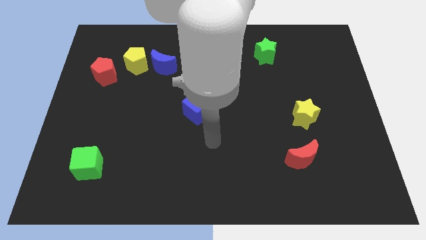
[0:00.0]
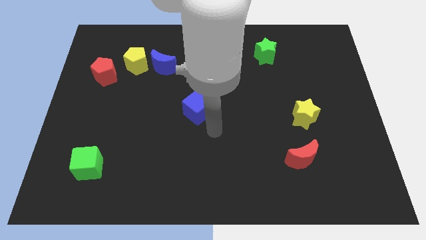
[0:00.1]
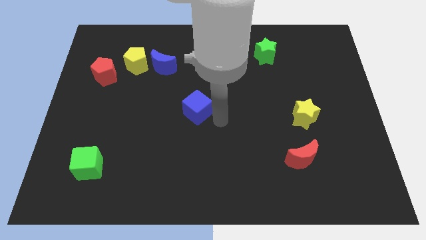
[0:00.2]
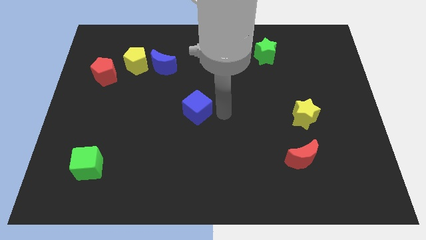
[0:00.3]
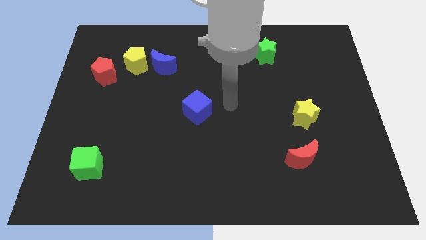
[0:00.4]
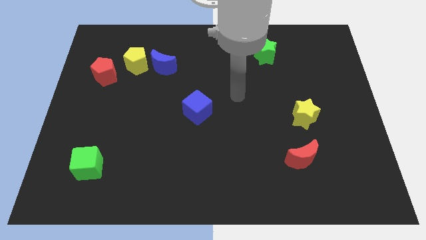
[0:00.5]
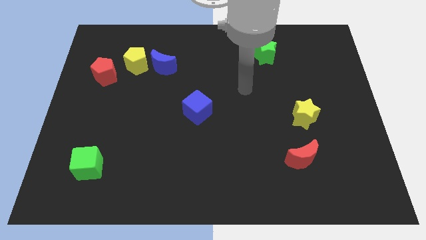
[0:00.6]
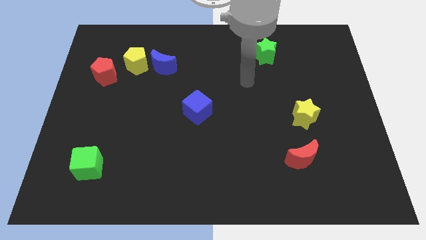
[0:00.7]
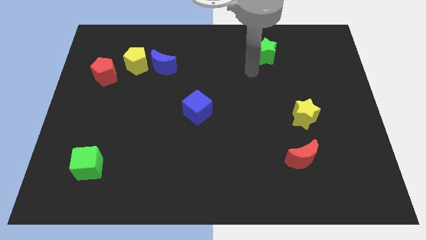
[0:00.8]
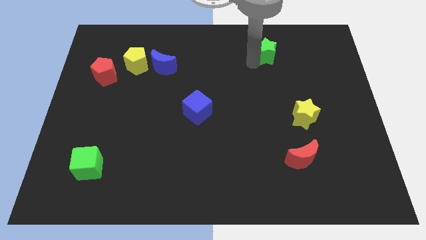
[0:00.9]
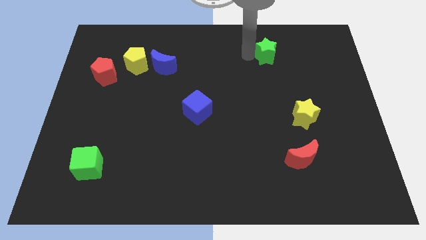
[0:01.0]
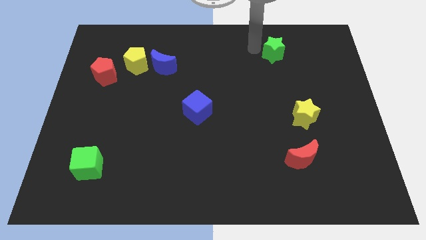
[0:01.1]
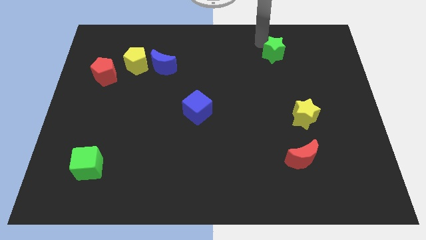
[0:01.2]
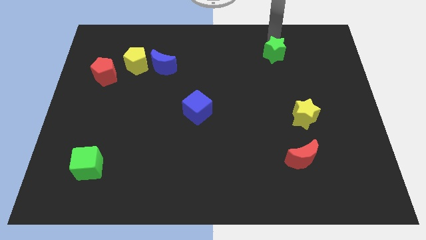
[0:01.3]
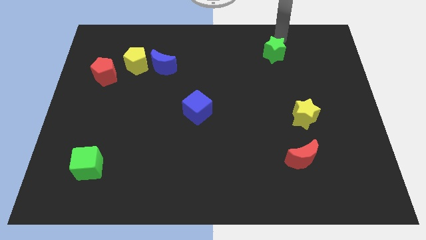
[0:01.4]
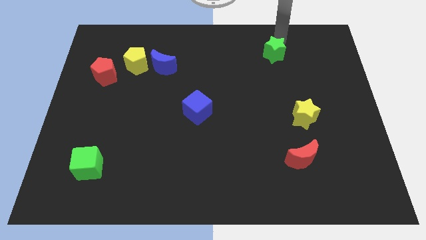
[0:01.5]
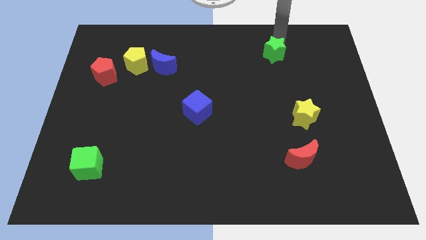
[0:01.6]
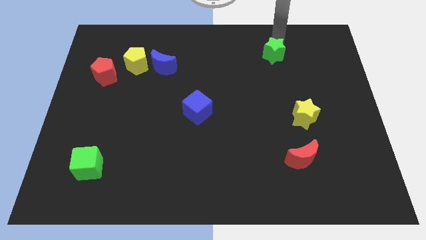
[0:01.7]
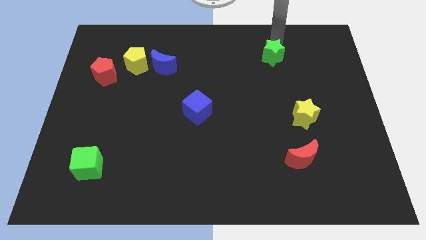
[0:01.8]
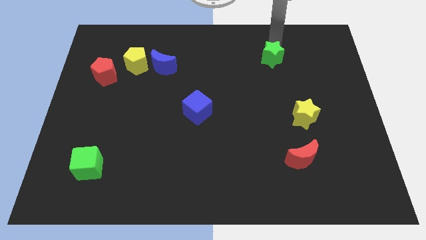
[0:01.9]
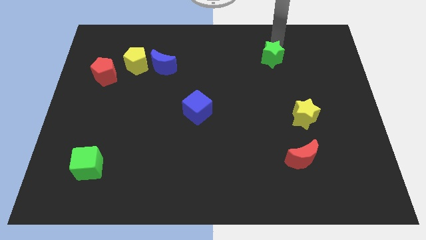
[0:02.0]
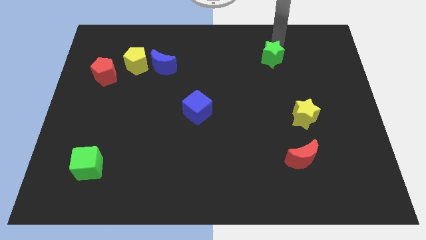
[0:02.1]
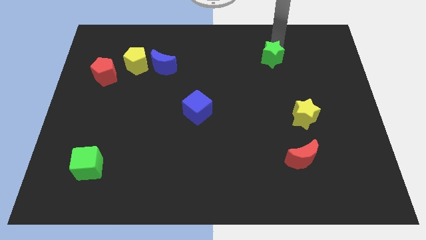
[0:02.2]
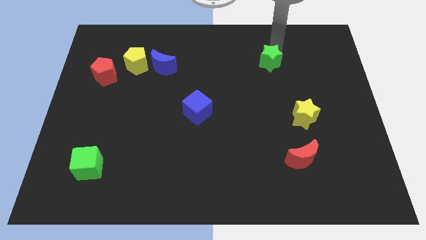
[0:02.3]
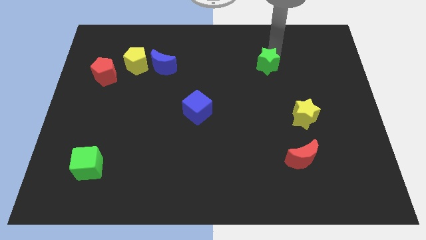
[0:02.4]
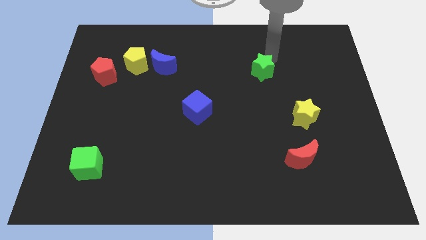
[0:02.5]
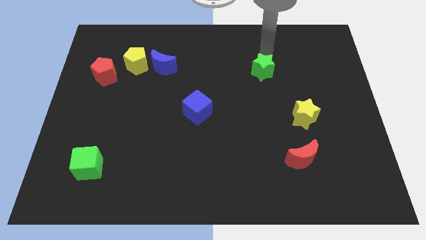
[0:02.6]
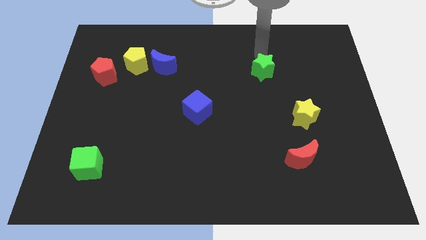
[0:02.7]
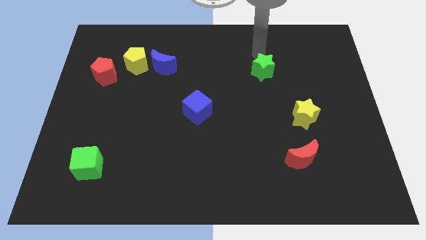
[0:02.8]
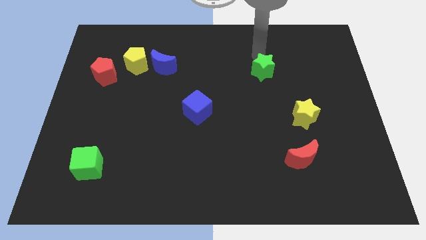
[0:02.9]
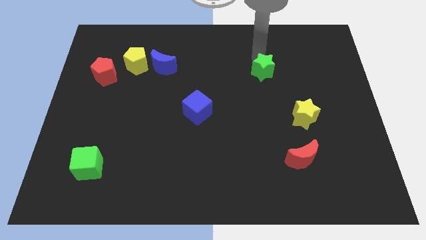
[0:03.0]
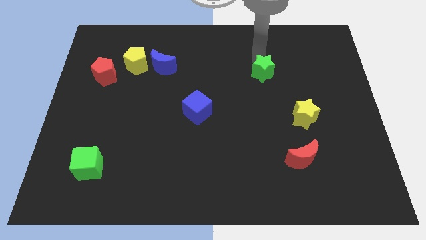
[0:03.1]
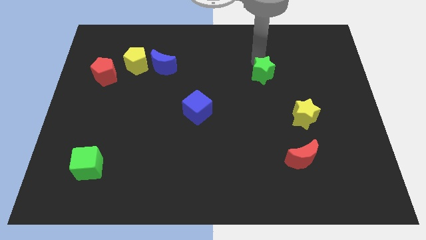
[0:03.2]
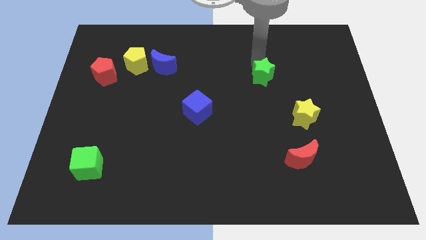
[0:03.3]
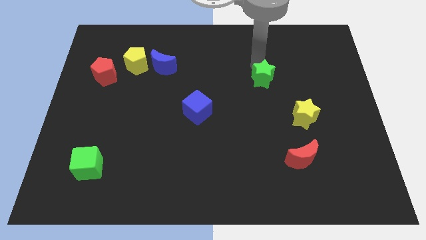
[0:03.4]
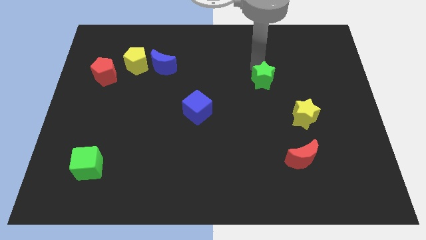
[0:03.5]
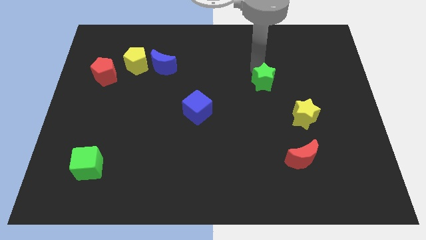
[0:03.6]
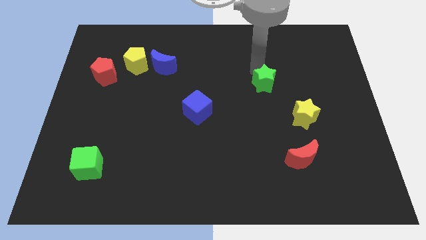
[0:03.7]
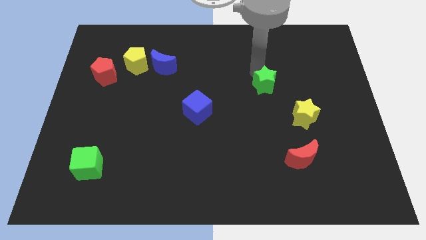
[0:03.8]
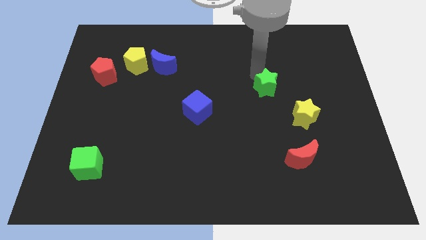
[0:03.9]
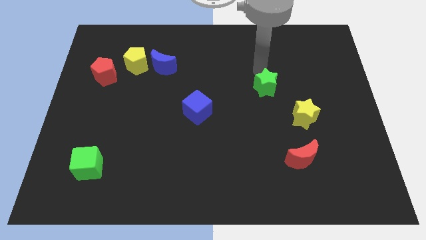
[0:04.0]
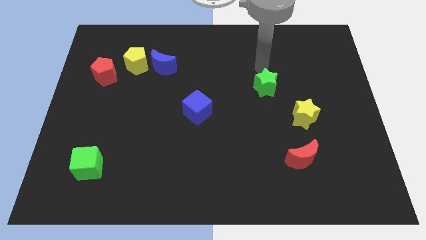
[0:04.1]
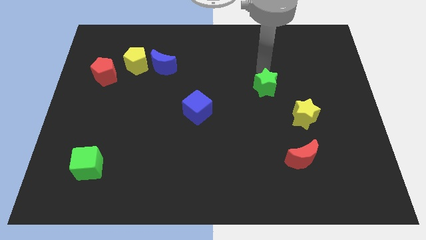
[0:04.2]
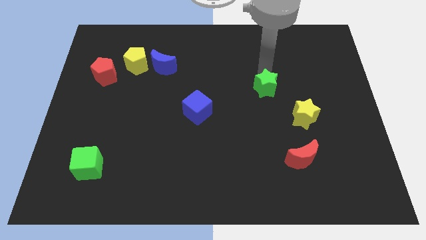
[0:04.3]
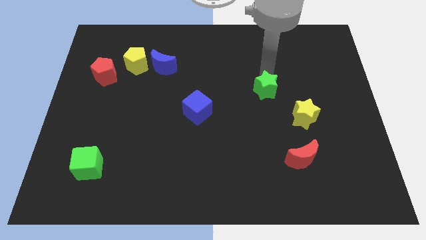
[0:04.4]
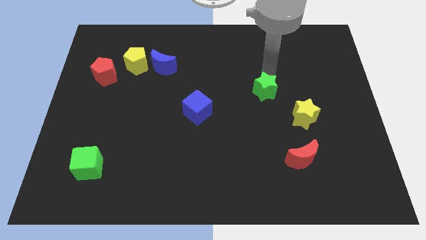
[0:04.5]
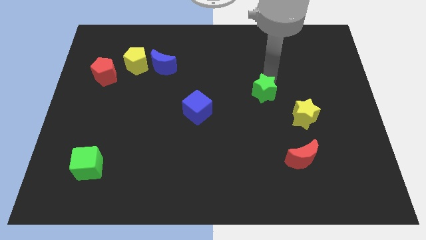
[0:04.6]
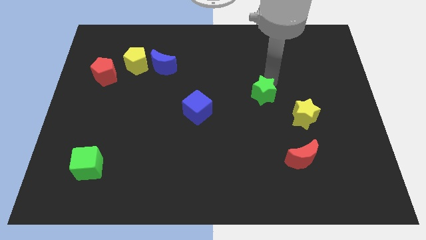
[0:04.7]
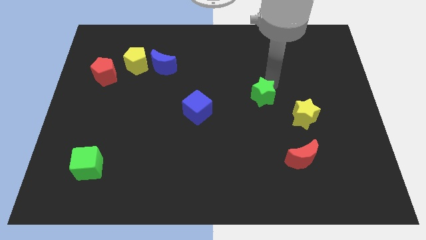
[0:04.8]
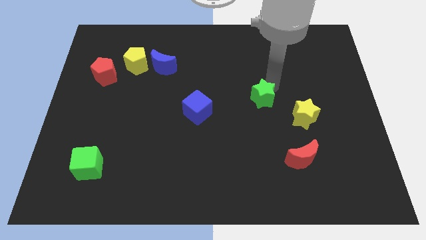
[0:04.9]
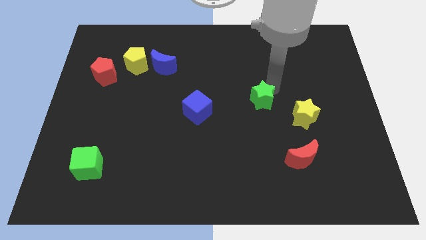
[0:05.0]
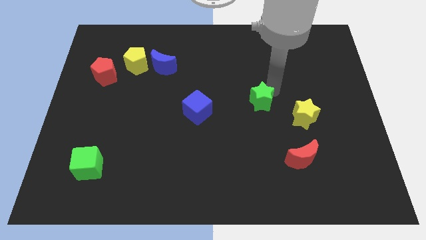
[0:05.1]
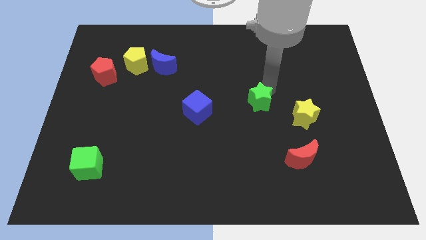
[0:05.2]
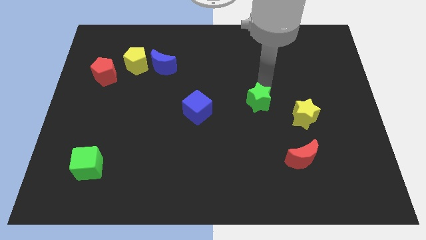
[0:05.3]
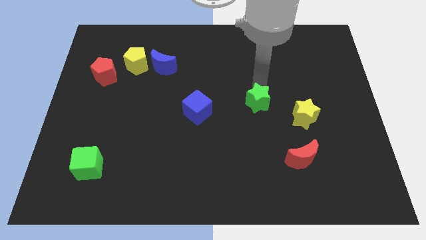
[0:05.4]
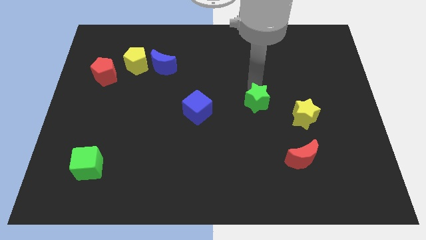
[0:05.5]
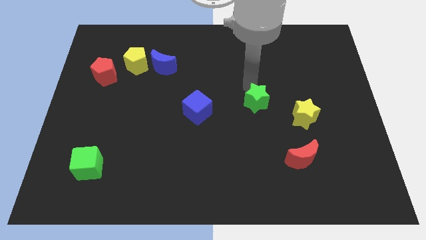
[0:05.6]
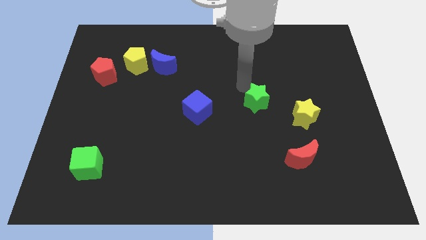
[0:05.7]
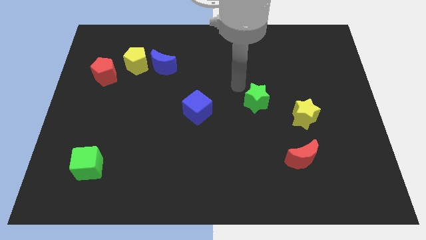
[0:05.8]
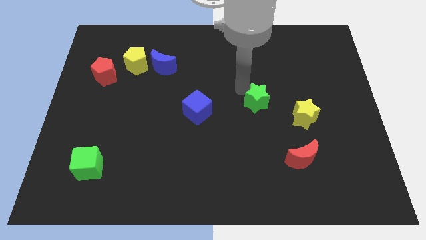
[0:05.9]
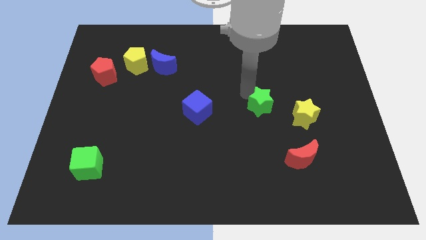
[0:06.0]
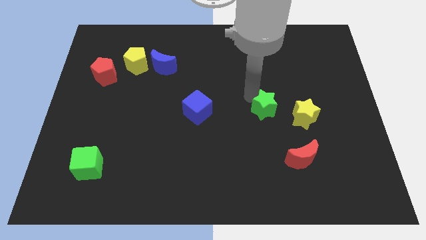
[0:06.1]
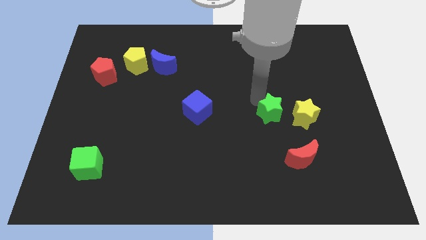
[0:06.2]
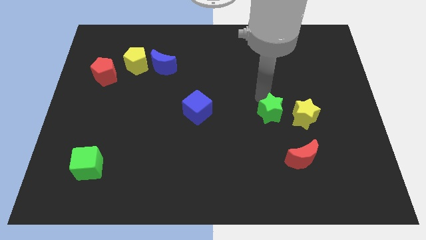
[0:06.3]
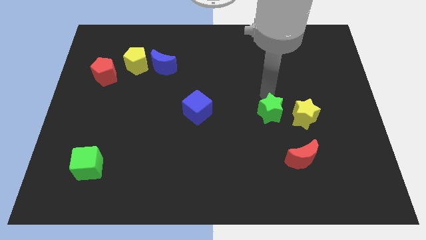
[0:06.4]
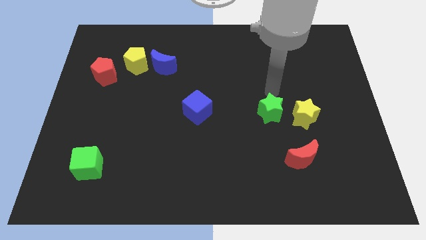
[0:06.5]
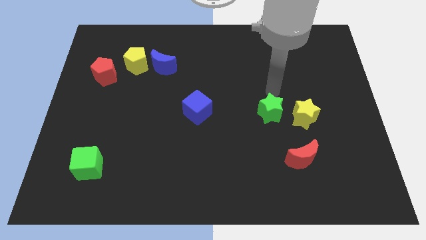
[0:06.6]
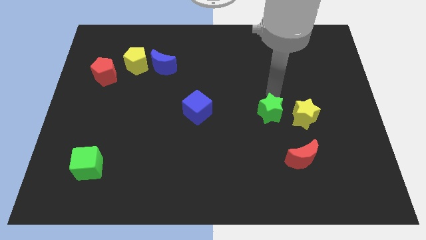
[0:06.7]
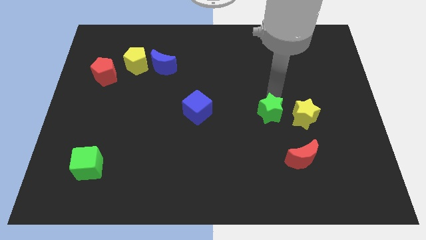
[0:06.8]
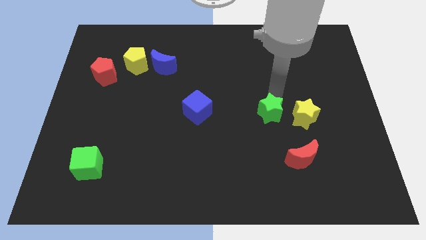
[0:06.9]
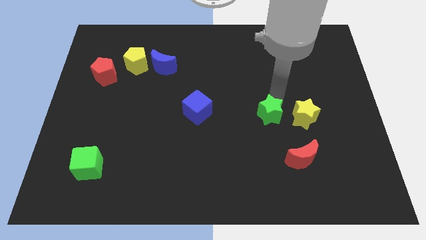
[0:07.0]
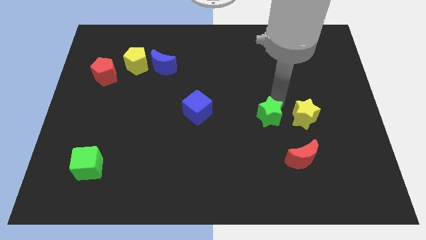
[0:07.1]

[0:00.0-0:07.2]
move the green star downwards

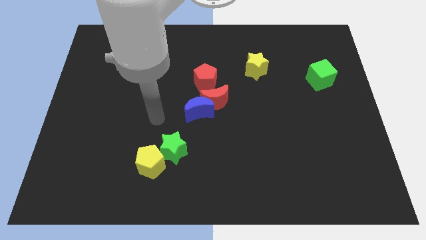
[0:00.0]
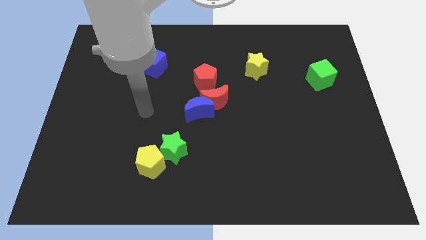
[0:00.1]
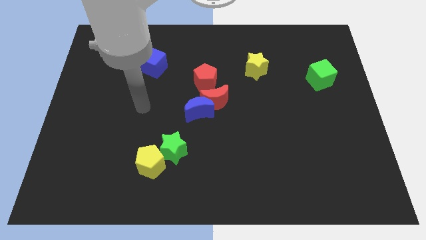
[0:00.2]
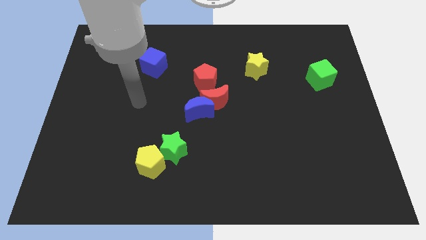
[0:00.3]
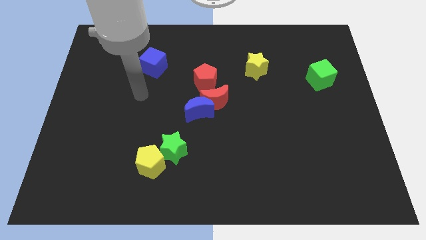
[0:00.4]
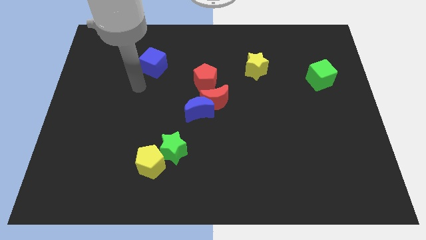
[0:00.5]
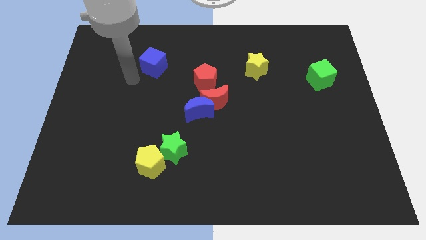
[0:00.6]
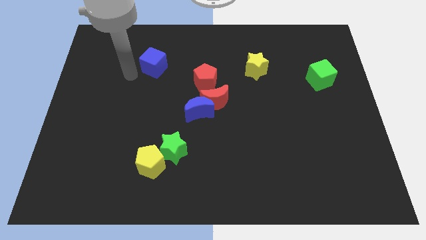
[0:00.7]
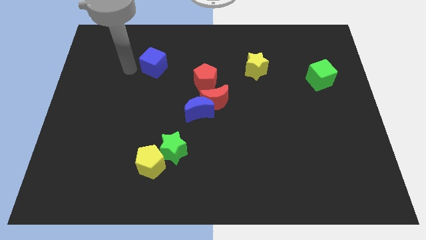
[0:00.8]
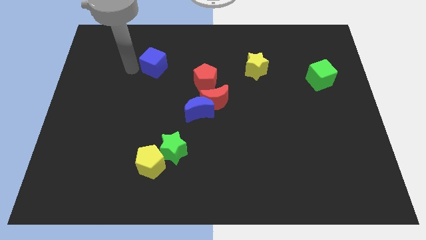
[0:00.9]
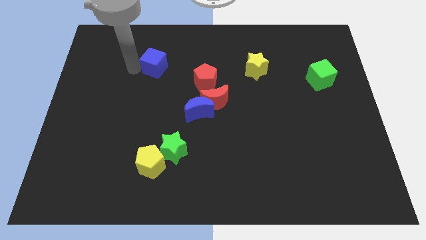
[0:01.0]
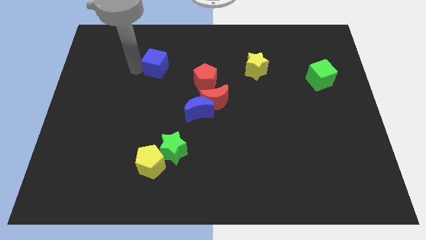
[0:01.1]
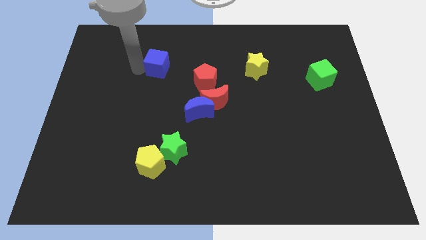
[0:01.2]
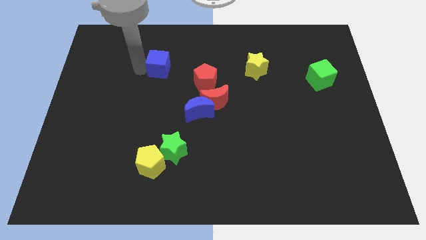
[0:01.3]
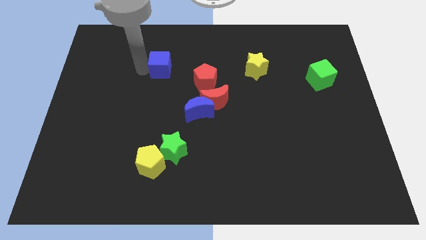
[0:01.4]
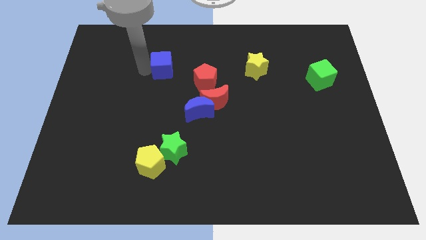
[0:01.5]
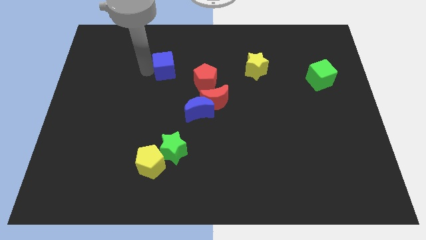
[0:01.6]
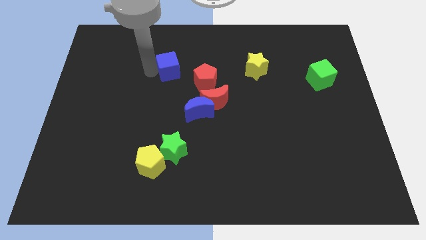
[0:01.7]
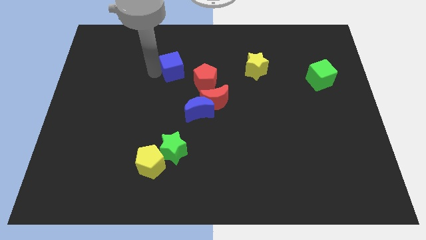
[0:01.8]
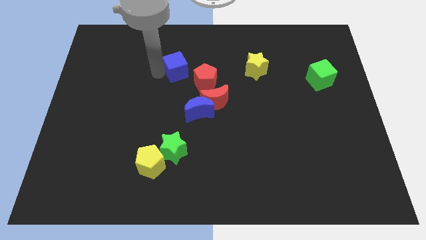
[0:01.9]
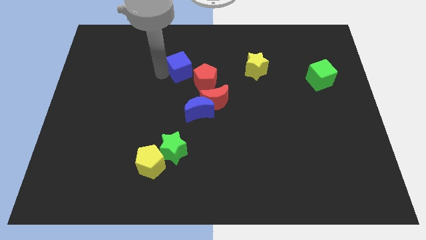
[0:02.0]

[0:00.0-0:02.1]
move the blue cube to the right slightly
